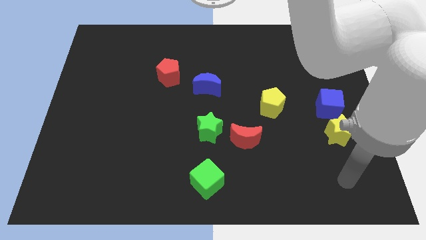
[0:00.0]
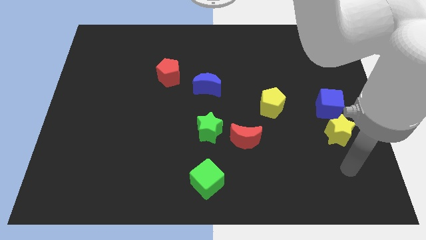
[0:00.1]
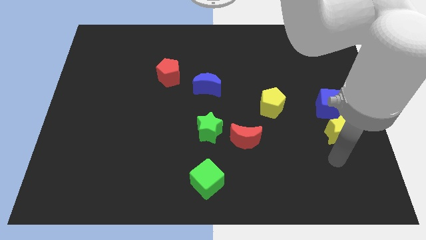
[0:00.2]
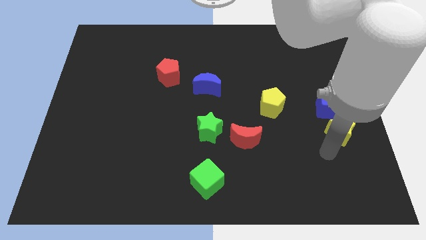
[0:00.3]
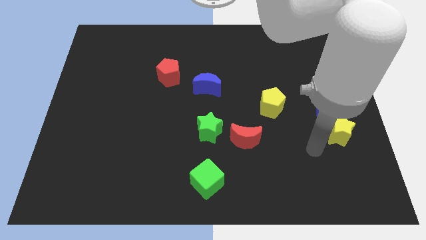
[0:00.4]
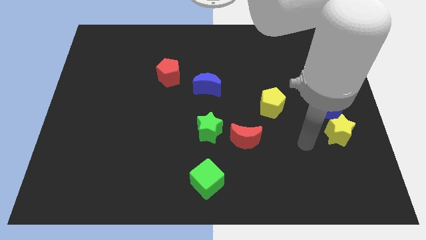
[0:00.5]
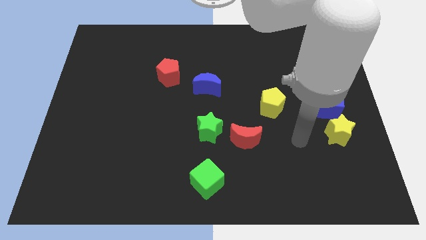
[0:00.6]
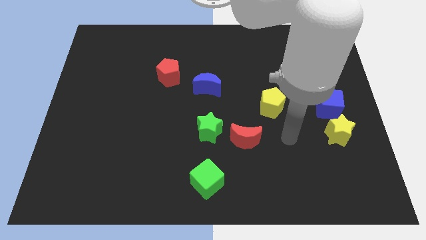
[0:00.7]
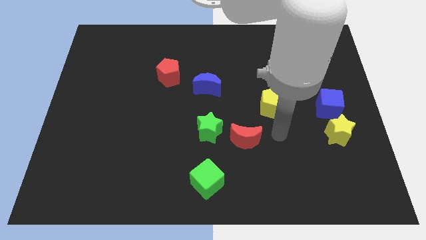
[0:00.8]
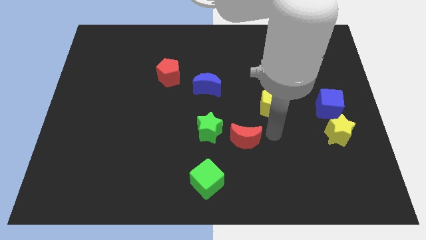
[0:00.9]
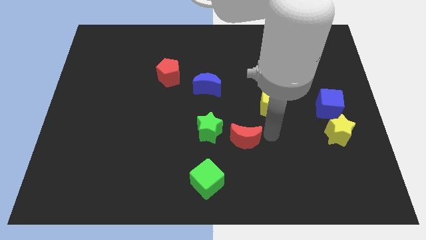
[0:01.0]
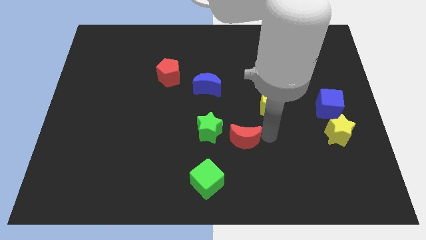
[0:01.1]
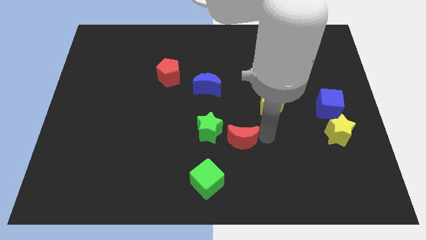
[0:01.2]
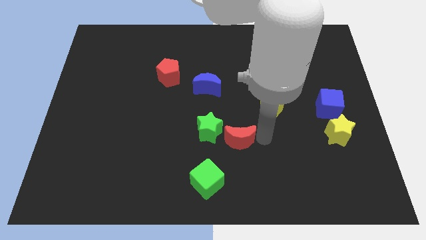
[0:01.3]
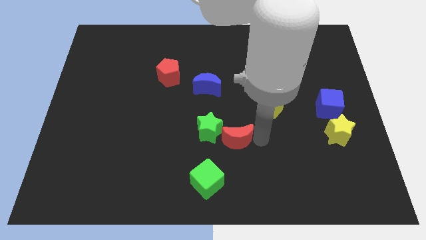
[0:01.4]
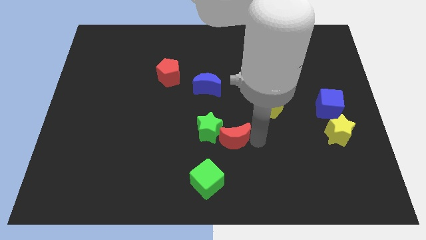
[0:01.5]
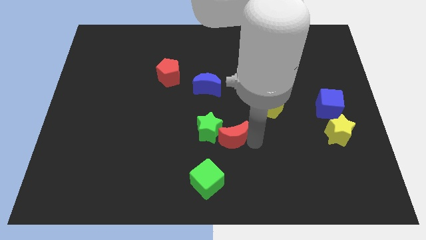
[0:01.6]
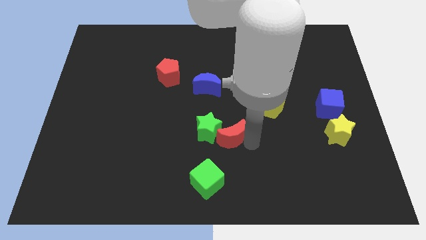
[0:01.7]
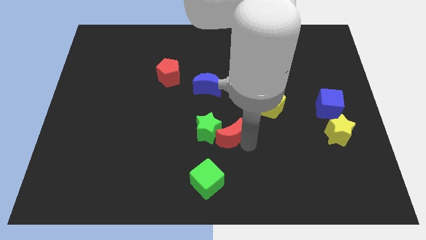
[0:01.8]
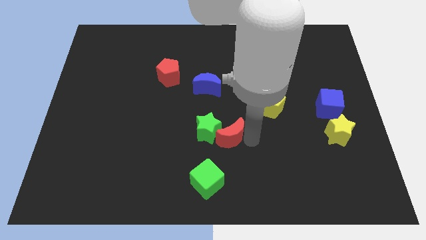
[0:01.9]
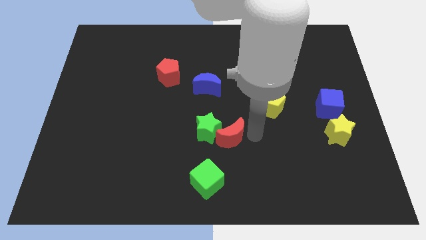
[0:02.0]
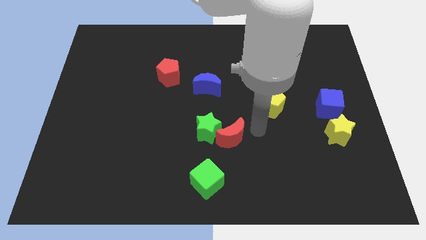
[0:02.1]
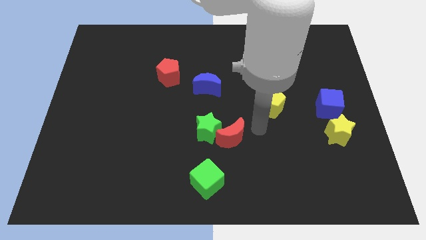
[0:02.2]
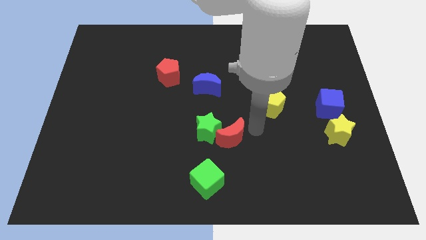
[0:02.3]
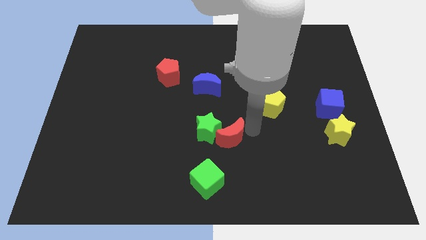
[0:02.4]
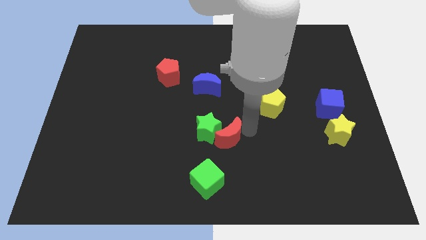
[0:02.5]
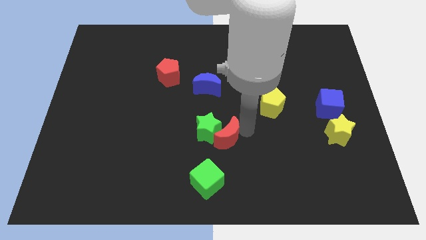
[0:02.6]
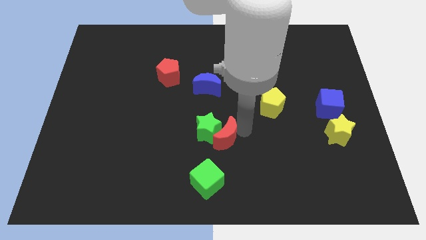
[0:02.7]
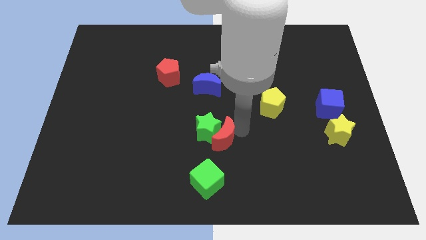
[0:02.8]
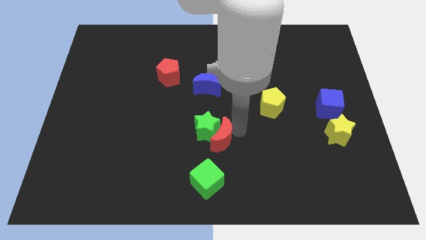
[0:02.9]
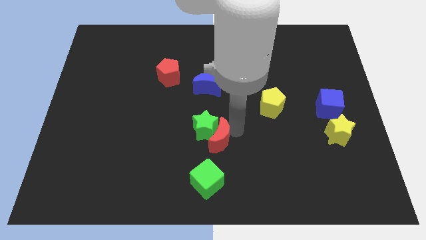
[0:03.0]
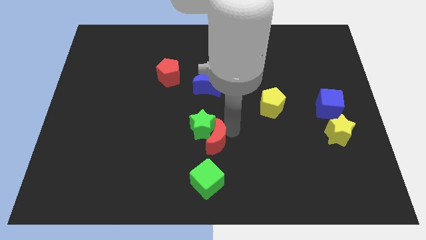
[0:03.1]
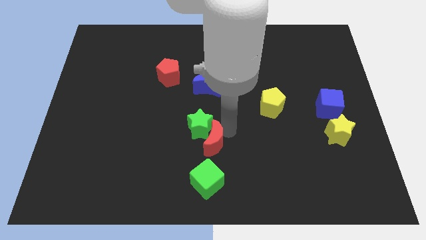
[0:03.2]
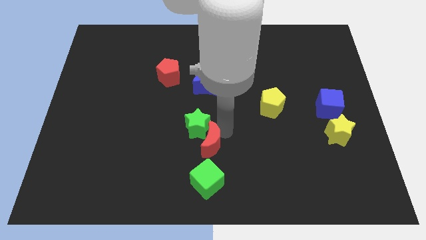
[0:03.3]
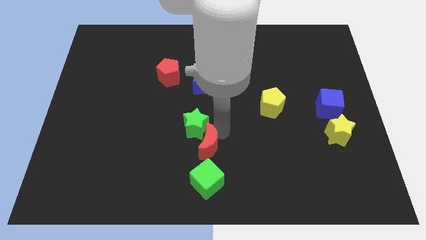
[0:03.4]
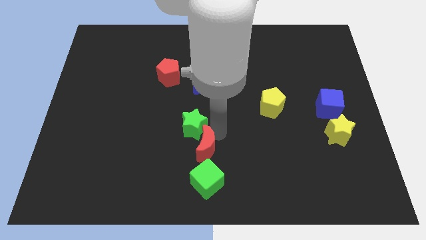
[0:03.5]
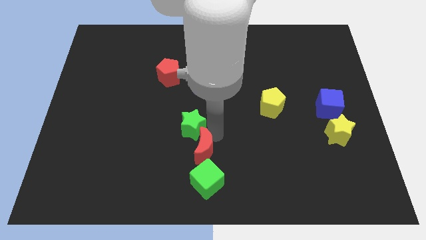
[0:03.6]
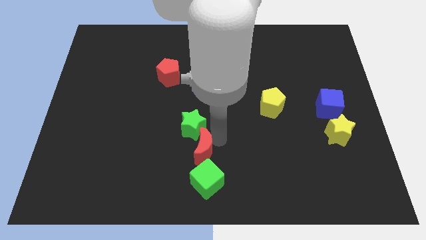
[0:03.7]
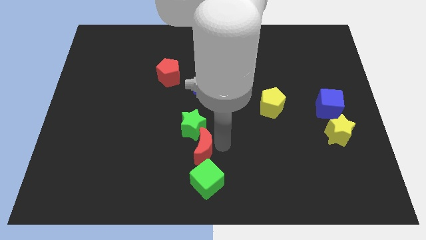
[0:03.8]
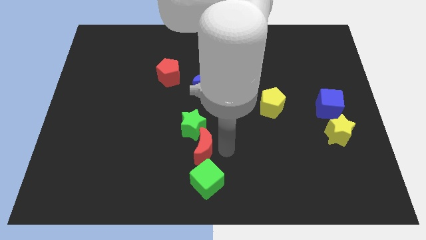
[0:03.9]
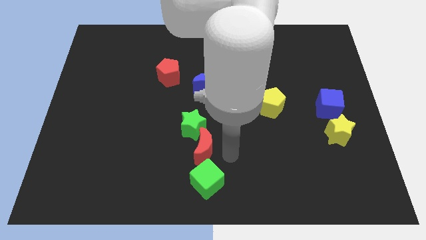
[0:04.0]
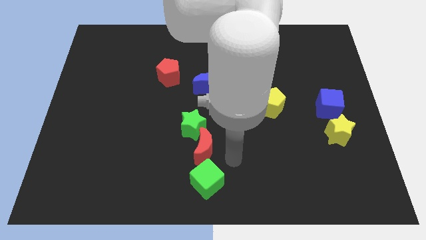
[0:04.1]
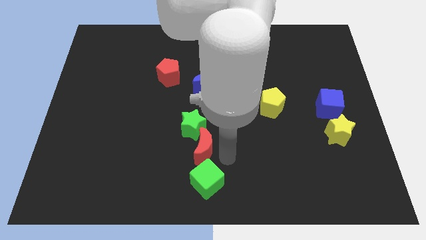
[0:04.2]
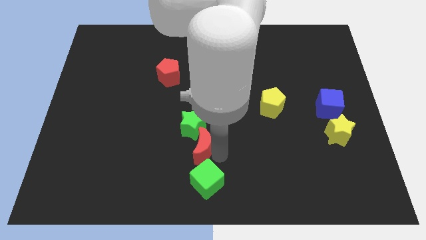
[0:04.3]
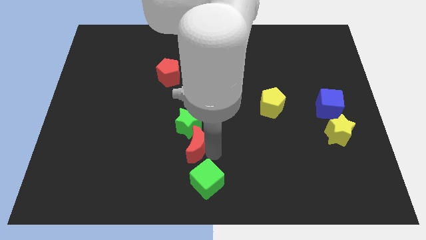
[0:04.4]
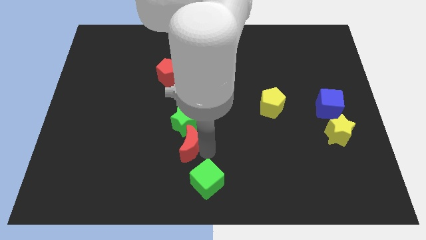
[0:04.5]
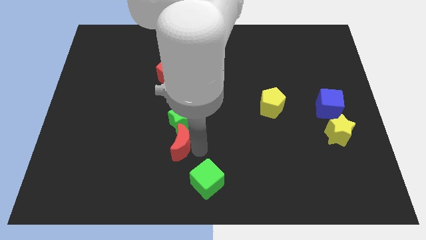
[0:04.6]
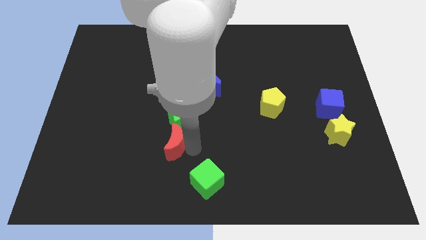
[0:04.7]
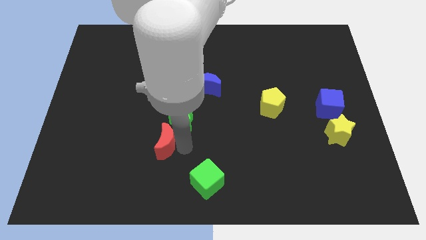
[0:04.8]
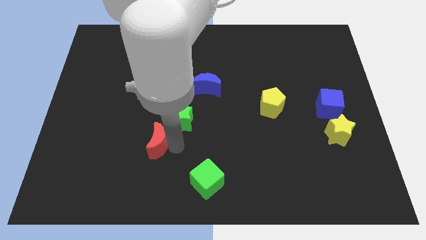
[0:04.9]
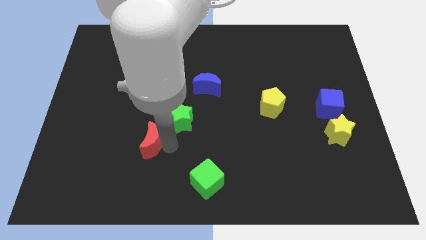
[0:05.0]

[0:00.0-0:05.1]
move the red moon left

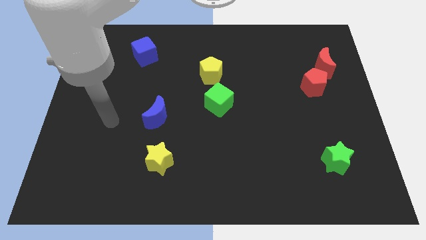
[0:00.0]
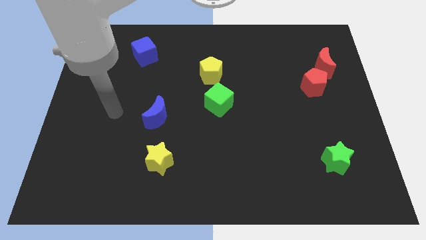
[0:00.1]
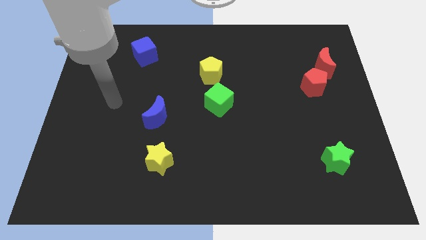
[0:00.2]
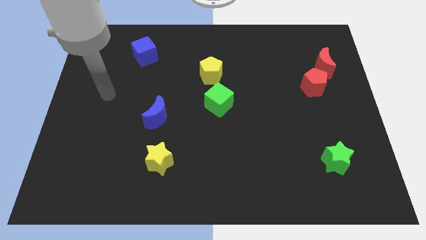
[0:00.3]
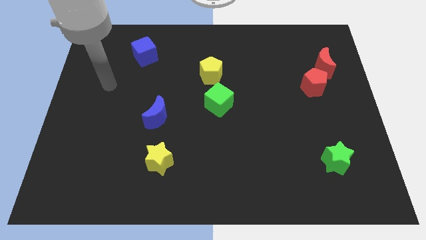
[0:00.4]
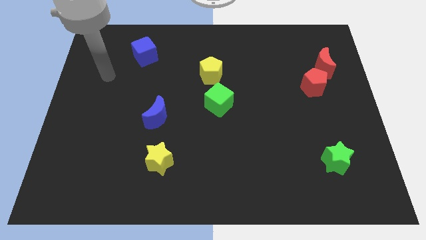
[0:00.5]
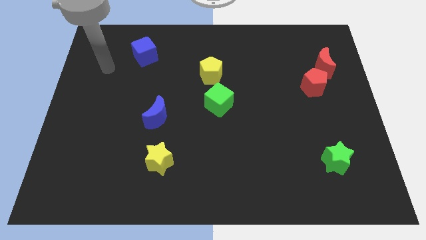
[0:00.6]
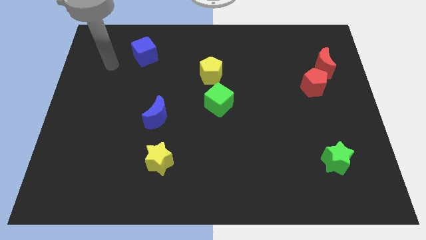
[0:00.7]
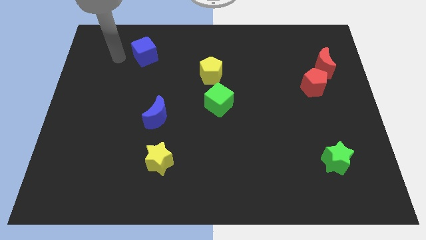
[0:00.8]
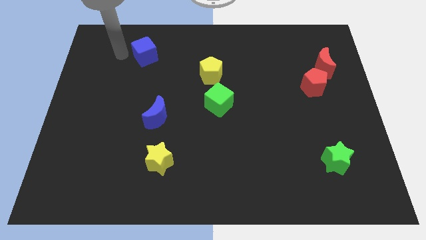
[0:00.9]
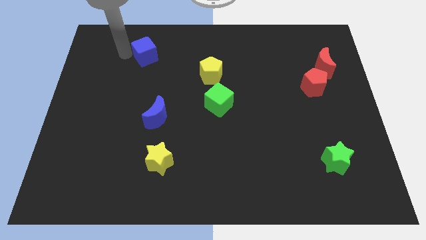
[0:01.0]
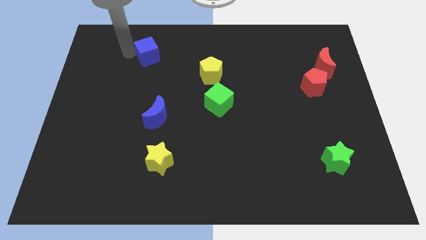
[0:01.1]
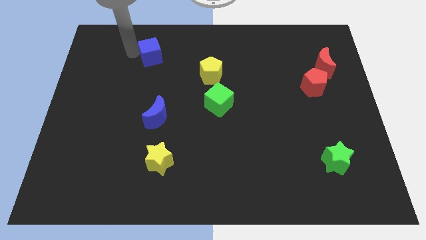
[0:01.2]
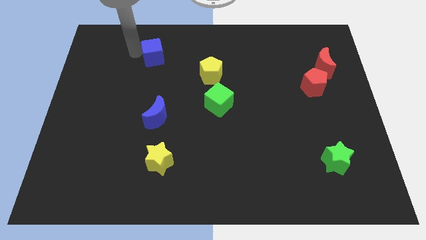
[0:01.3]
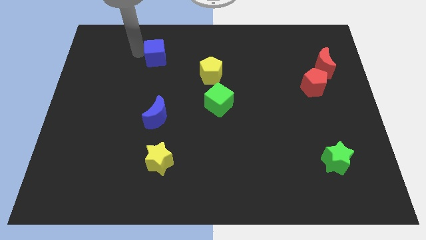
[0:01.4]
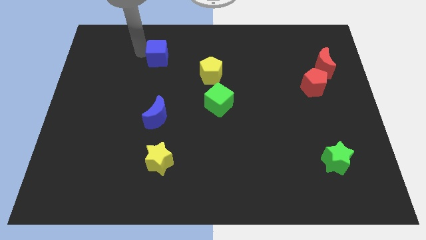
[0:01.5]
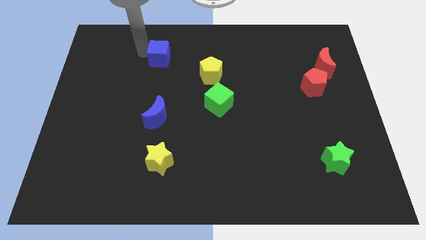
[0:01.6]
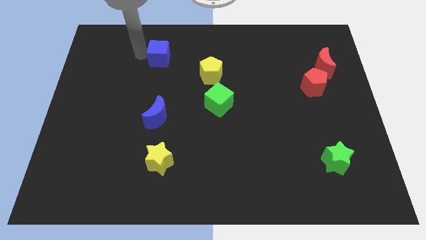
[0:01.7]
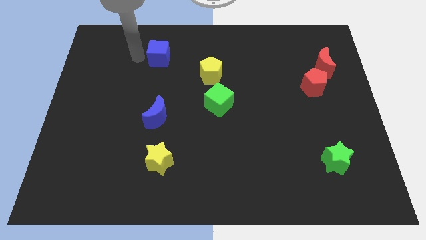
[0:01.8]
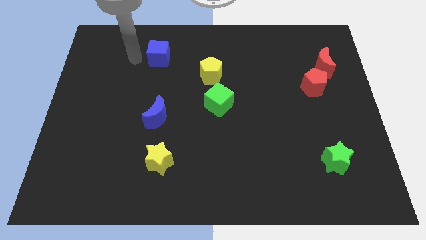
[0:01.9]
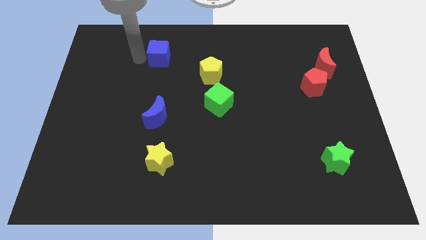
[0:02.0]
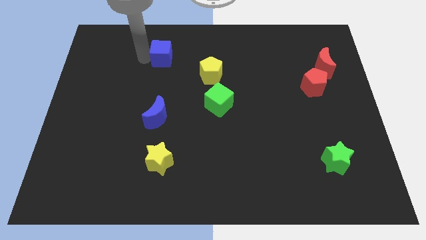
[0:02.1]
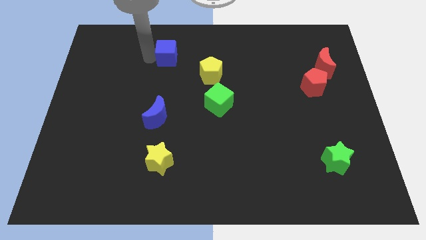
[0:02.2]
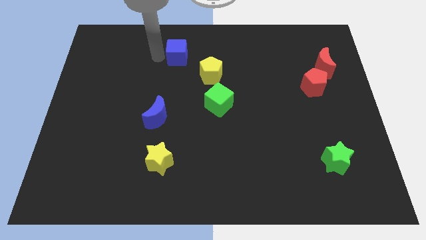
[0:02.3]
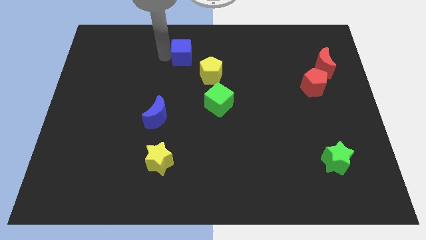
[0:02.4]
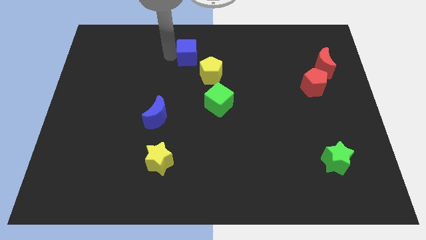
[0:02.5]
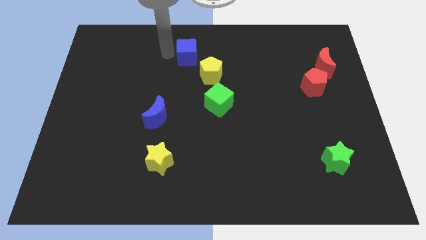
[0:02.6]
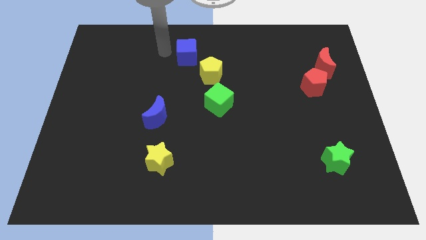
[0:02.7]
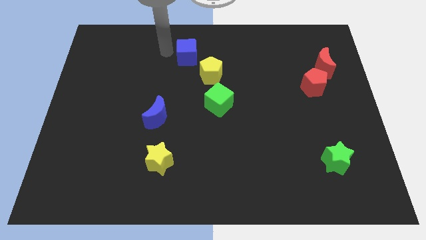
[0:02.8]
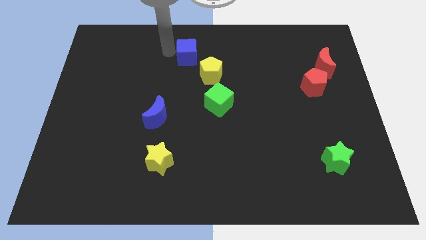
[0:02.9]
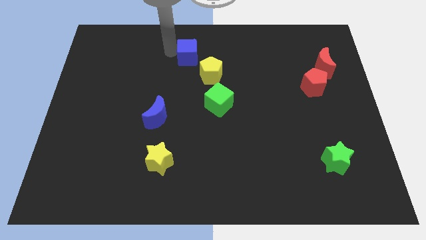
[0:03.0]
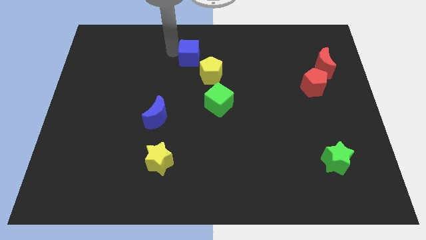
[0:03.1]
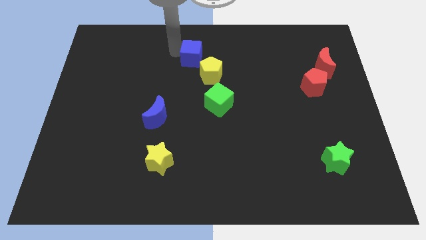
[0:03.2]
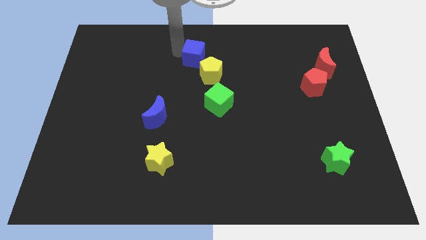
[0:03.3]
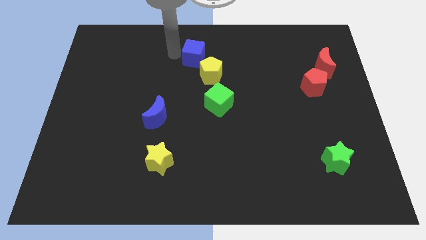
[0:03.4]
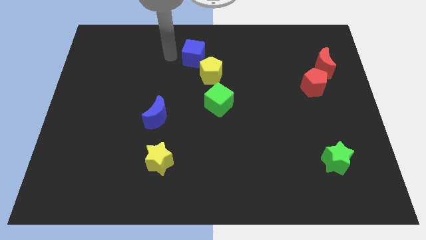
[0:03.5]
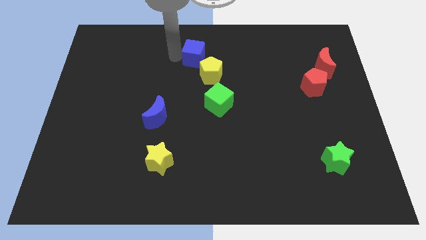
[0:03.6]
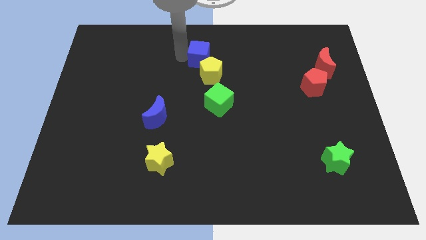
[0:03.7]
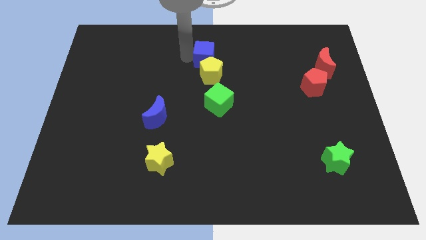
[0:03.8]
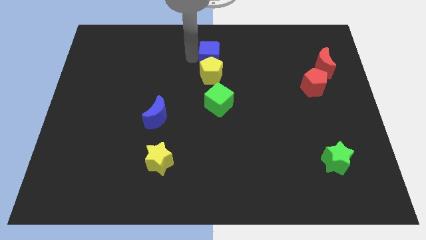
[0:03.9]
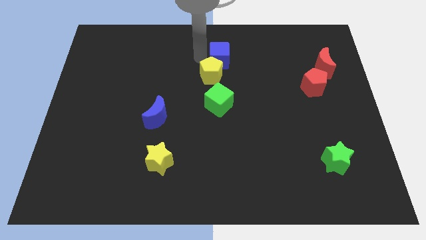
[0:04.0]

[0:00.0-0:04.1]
slide the blue cube to the right
